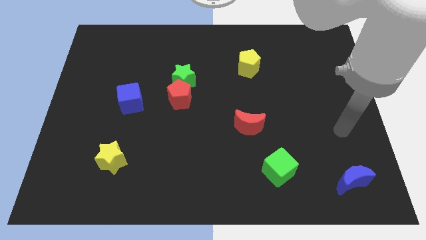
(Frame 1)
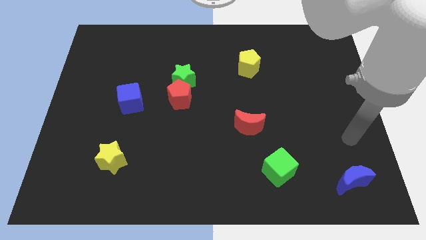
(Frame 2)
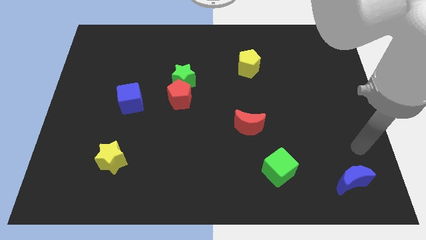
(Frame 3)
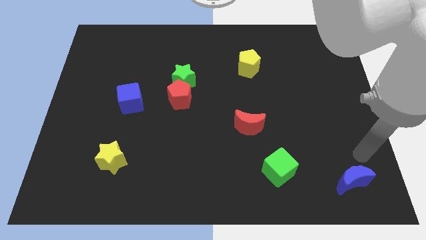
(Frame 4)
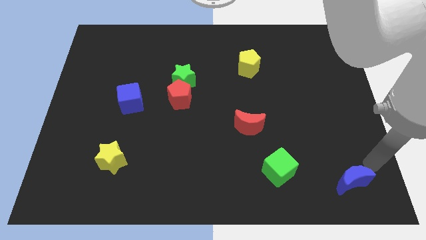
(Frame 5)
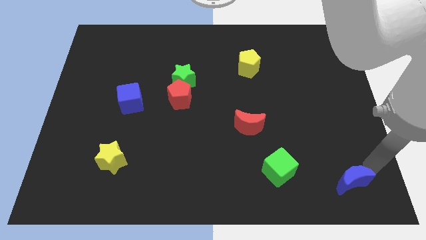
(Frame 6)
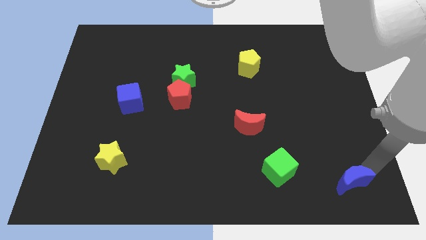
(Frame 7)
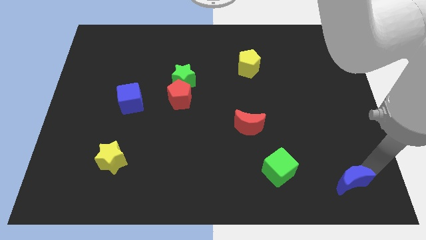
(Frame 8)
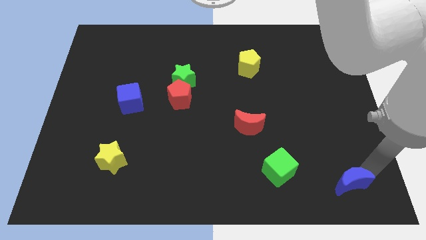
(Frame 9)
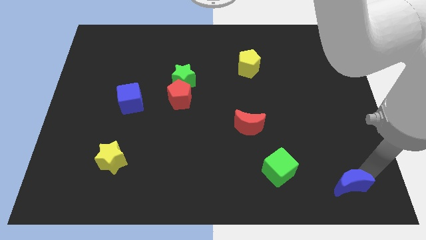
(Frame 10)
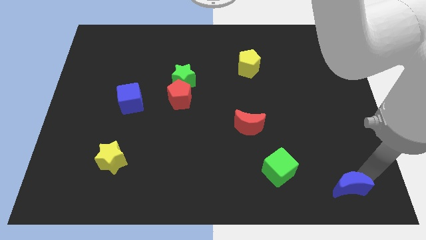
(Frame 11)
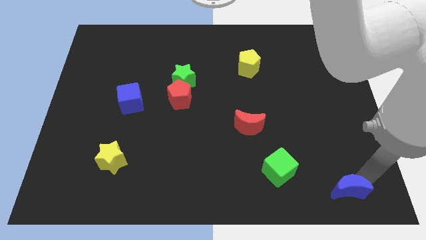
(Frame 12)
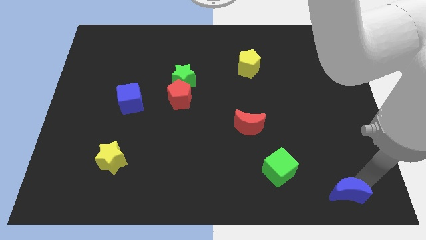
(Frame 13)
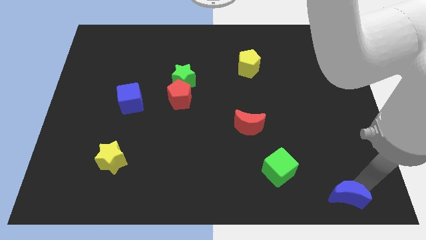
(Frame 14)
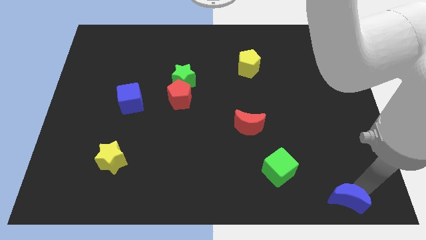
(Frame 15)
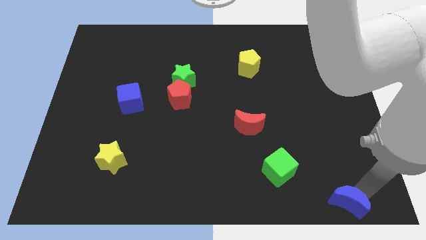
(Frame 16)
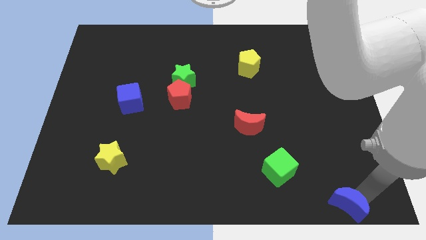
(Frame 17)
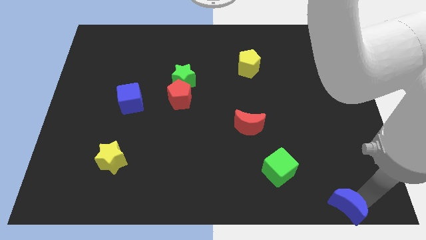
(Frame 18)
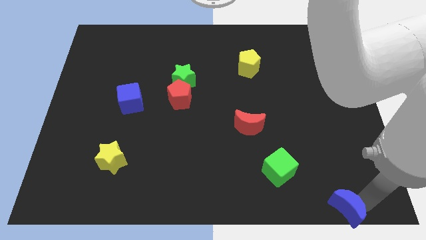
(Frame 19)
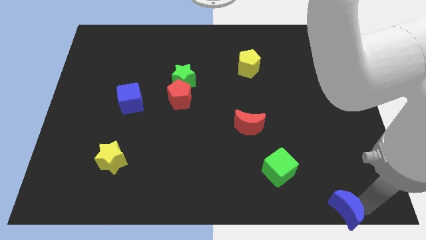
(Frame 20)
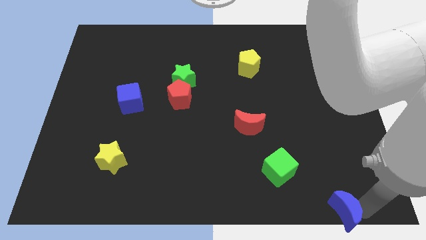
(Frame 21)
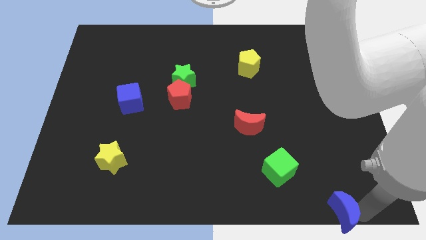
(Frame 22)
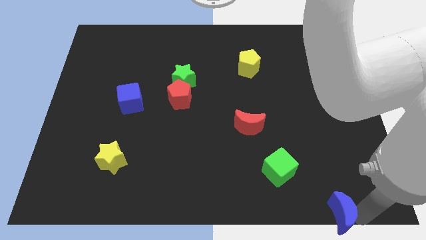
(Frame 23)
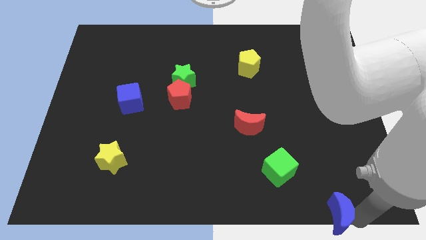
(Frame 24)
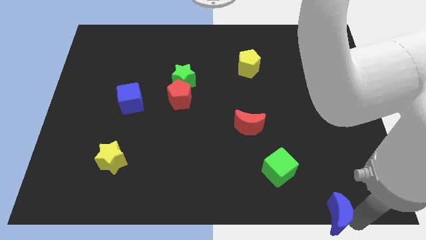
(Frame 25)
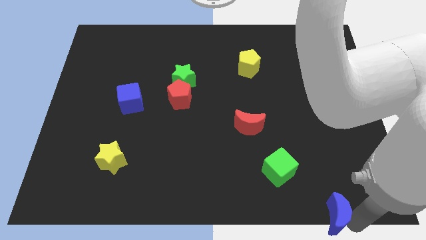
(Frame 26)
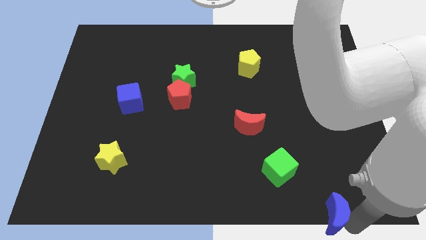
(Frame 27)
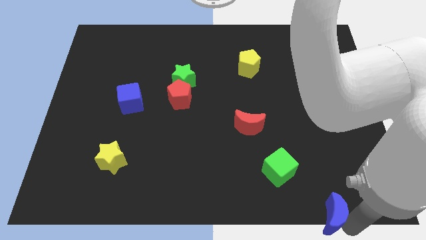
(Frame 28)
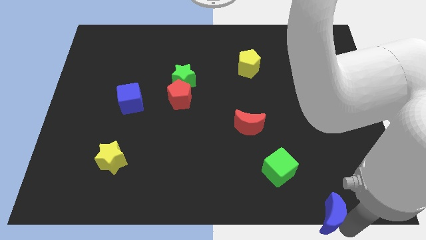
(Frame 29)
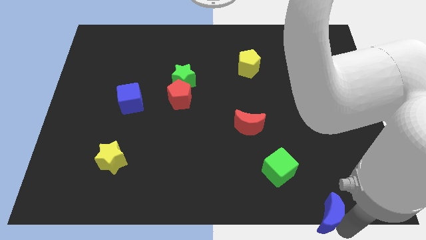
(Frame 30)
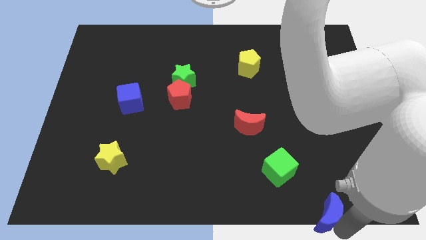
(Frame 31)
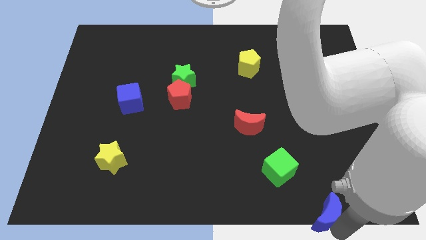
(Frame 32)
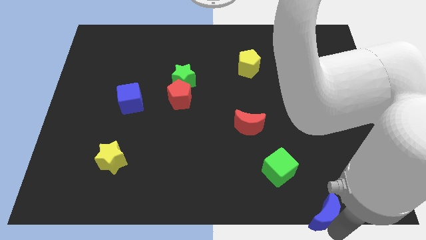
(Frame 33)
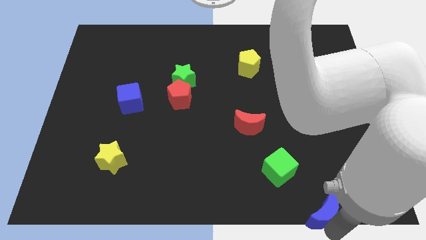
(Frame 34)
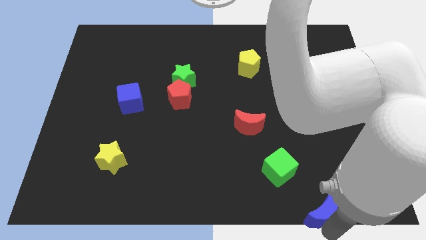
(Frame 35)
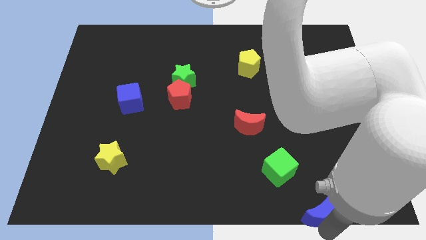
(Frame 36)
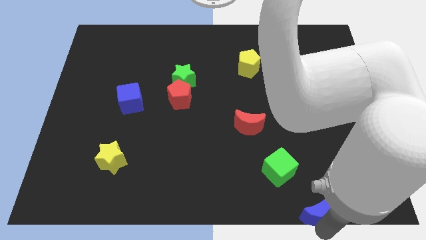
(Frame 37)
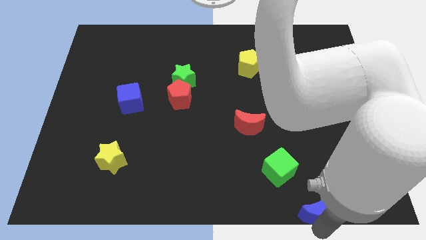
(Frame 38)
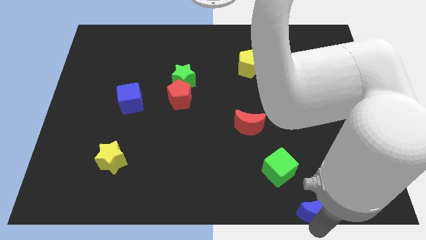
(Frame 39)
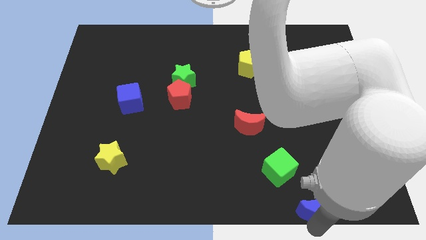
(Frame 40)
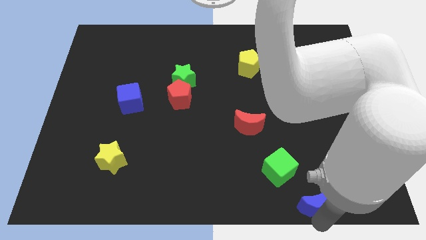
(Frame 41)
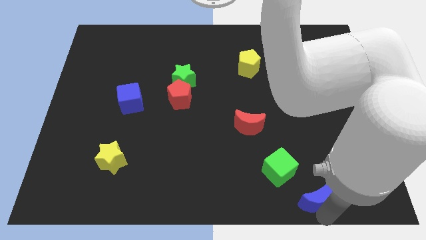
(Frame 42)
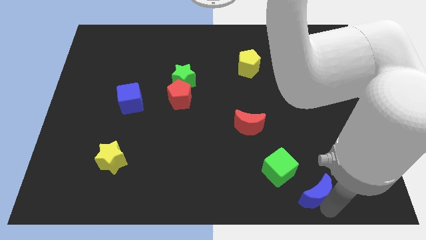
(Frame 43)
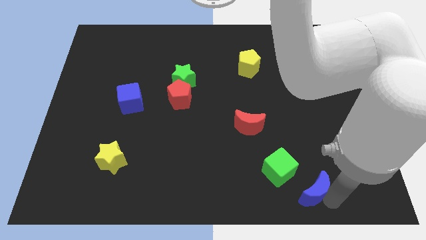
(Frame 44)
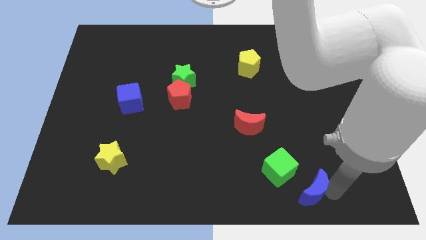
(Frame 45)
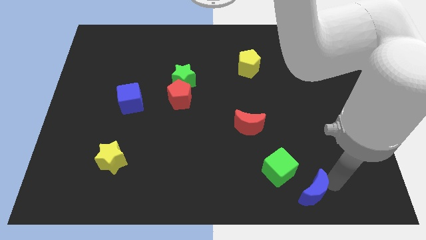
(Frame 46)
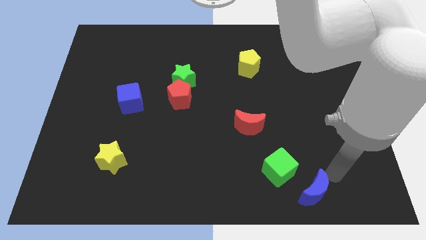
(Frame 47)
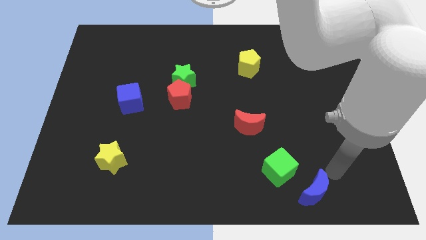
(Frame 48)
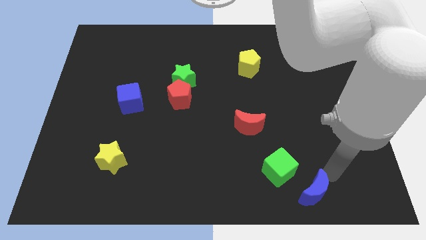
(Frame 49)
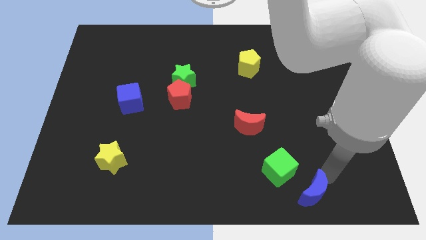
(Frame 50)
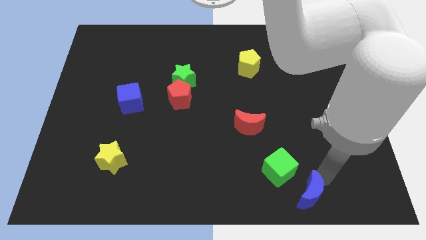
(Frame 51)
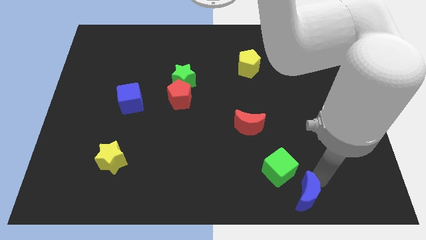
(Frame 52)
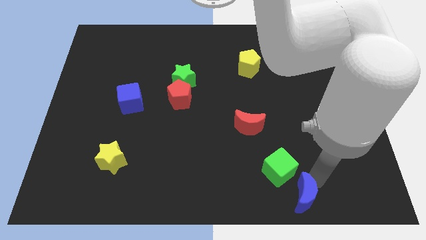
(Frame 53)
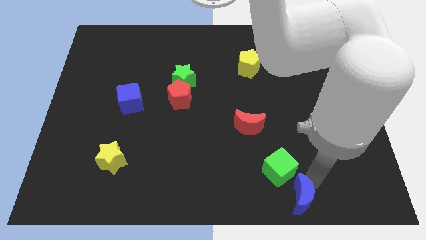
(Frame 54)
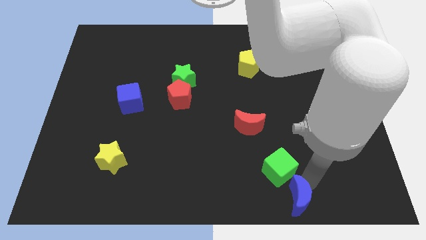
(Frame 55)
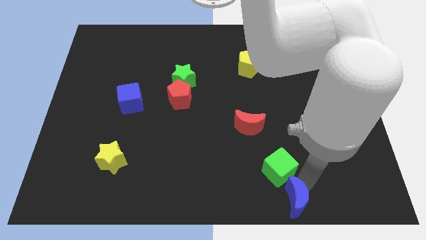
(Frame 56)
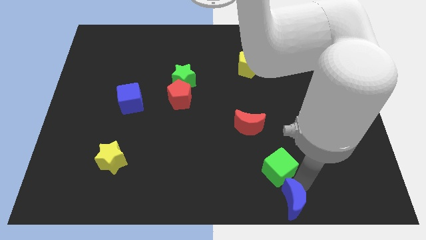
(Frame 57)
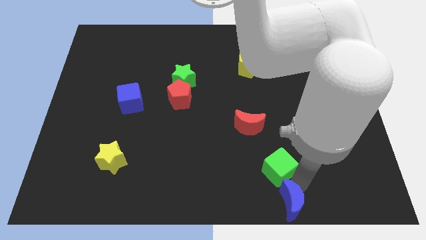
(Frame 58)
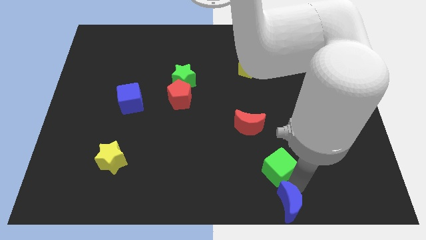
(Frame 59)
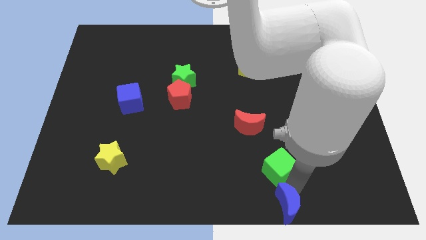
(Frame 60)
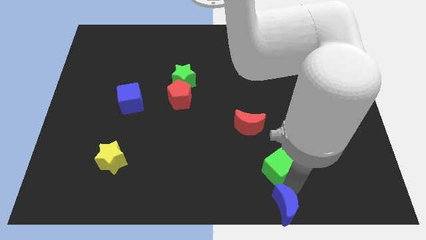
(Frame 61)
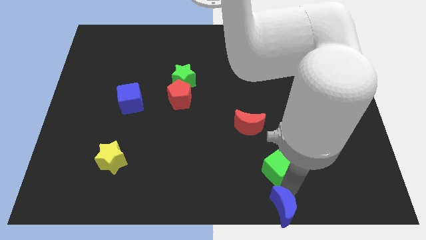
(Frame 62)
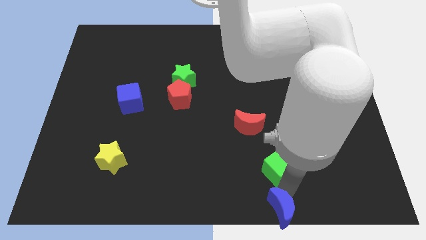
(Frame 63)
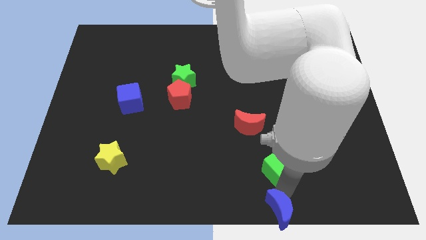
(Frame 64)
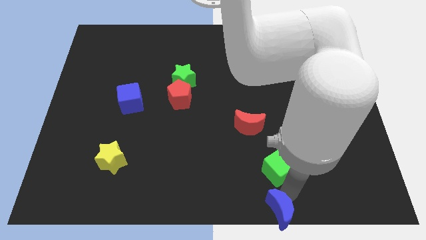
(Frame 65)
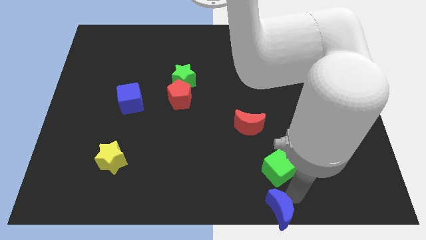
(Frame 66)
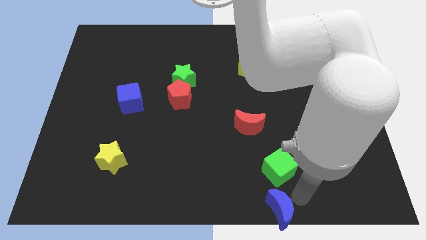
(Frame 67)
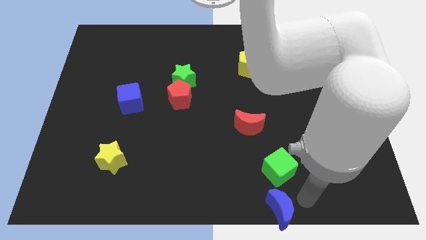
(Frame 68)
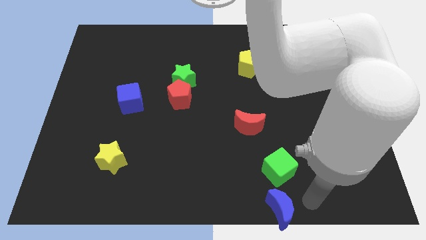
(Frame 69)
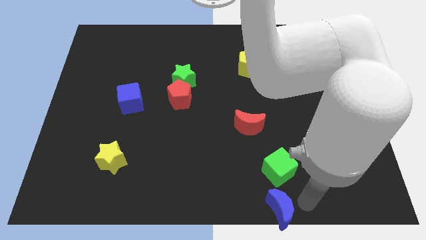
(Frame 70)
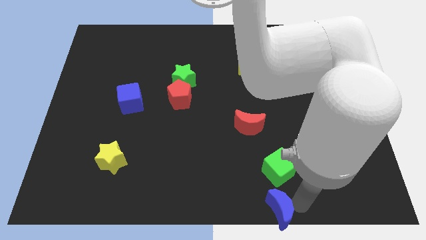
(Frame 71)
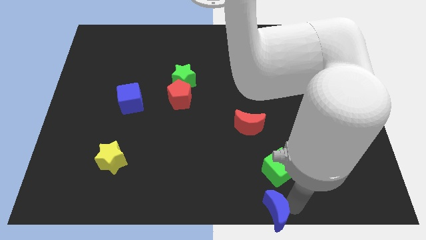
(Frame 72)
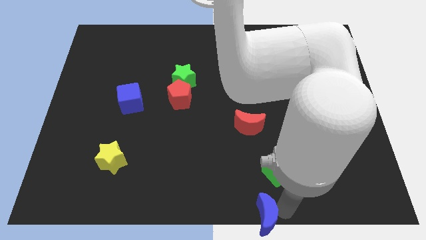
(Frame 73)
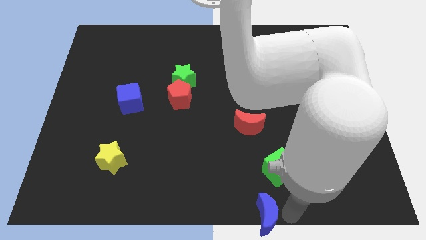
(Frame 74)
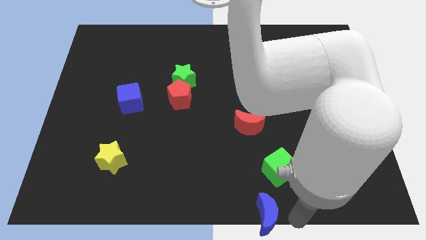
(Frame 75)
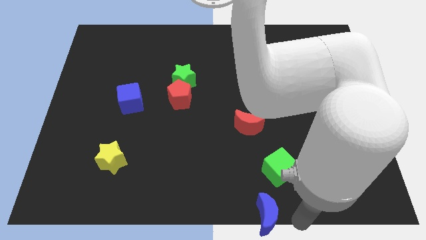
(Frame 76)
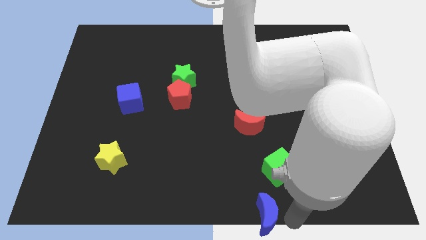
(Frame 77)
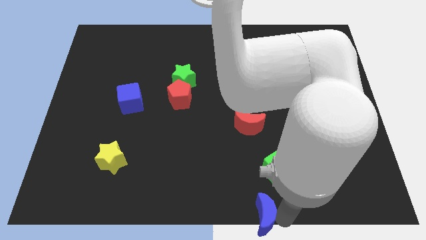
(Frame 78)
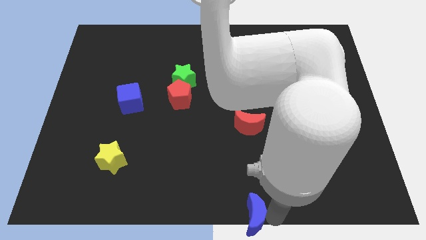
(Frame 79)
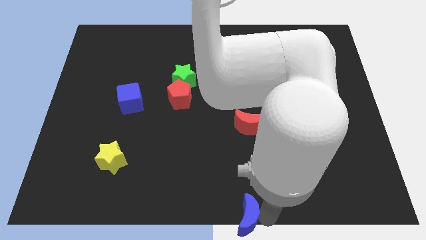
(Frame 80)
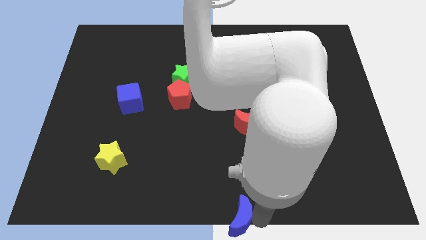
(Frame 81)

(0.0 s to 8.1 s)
move the blue moon left
